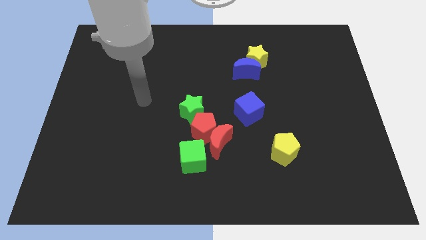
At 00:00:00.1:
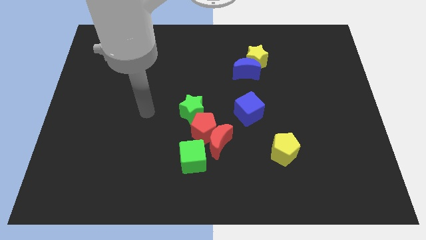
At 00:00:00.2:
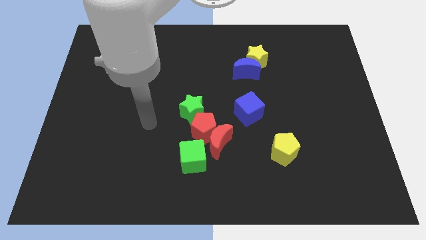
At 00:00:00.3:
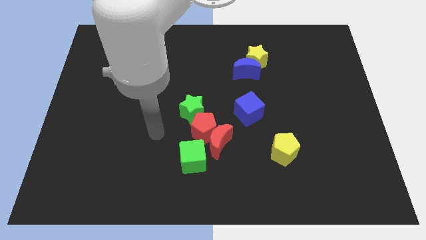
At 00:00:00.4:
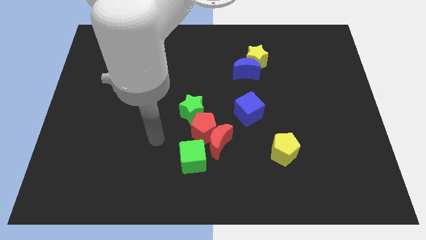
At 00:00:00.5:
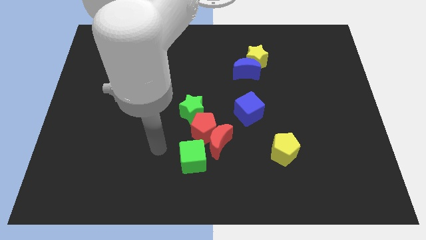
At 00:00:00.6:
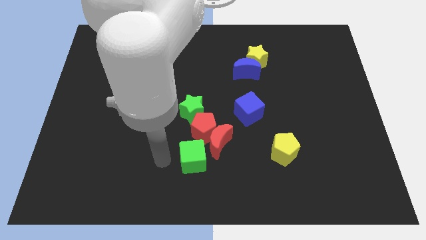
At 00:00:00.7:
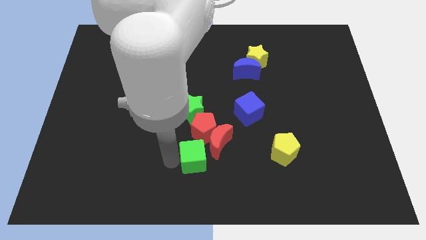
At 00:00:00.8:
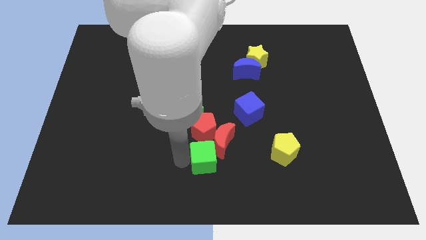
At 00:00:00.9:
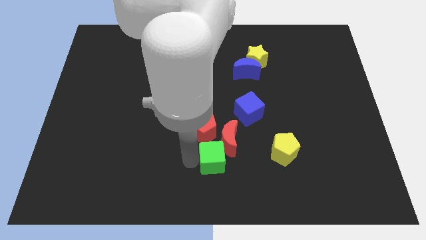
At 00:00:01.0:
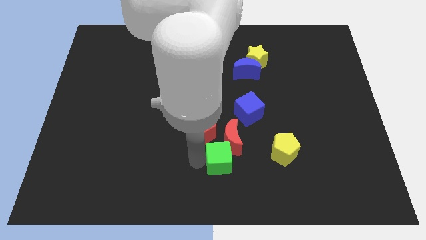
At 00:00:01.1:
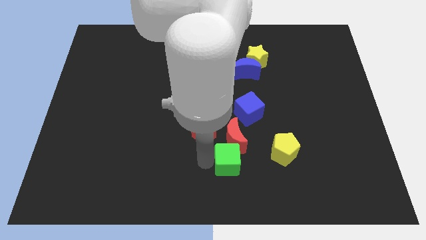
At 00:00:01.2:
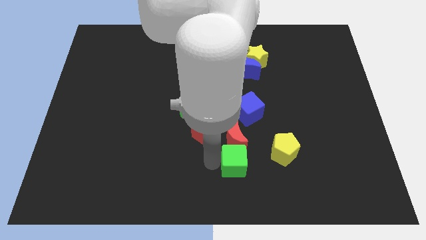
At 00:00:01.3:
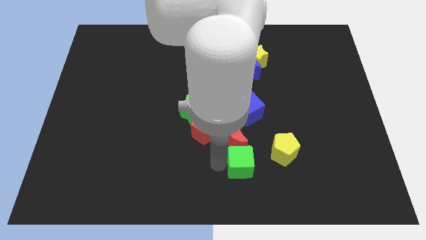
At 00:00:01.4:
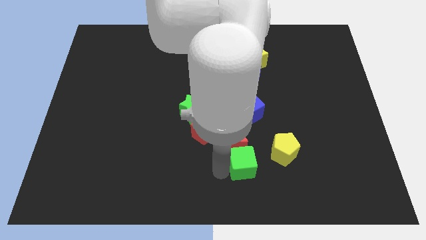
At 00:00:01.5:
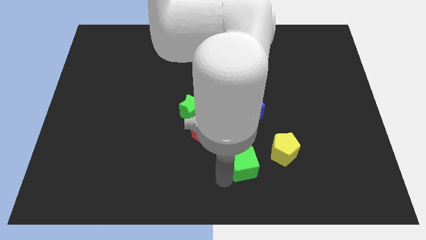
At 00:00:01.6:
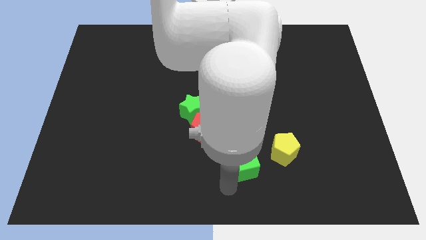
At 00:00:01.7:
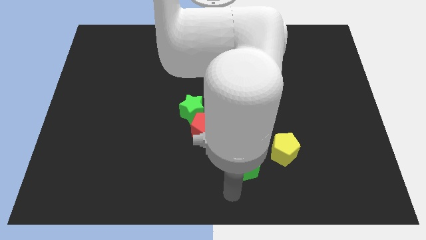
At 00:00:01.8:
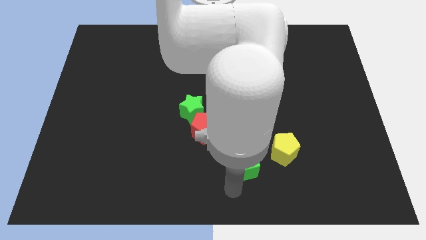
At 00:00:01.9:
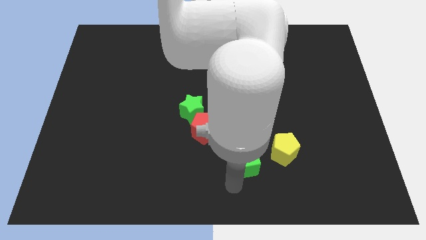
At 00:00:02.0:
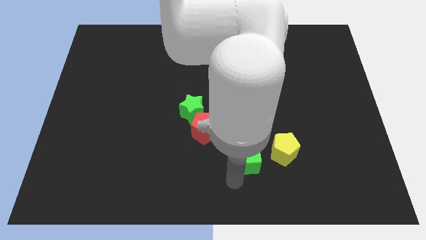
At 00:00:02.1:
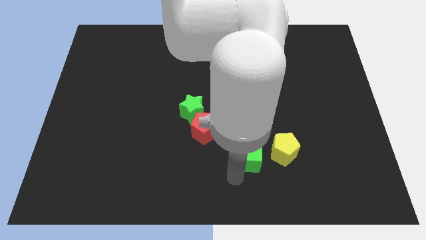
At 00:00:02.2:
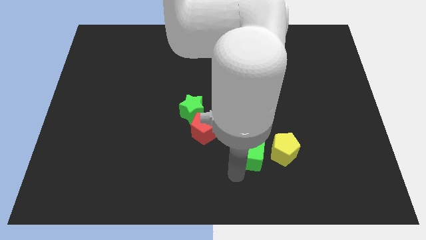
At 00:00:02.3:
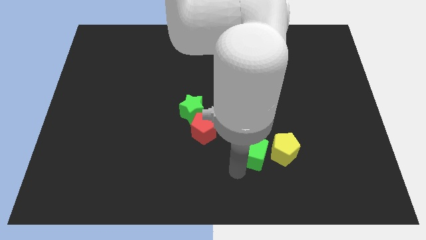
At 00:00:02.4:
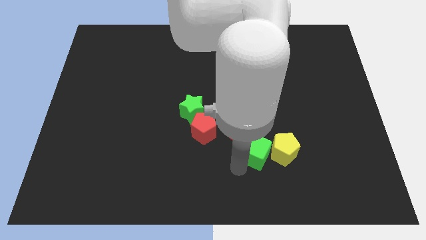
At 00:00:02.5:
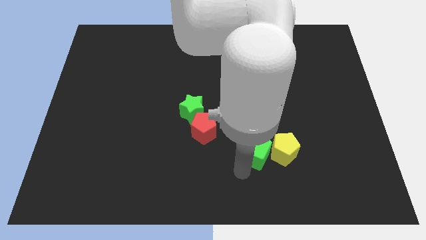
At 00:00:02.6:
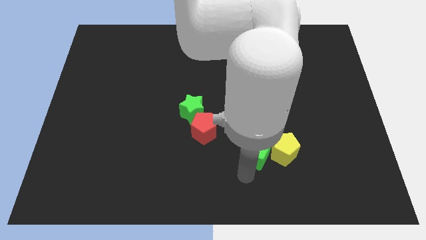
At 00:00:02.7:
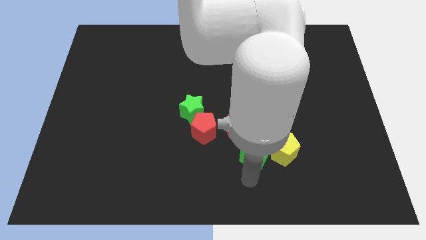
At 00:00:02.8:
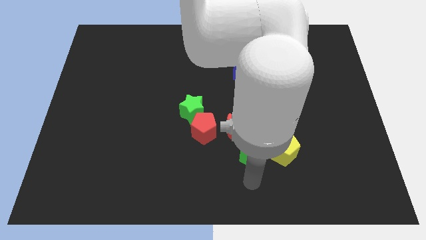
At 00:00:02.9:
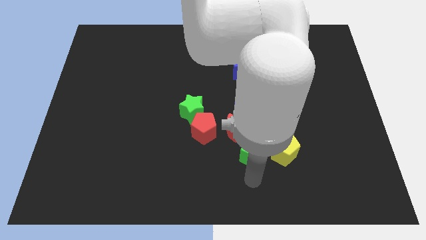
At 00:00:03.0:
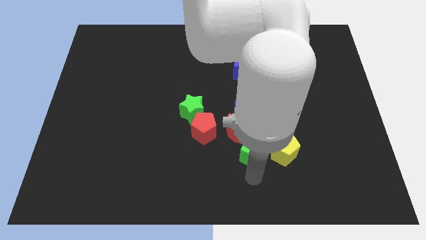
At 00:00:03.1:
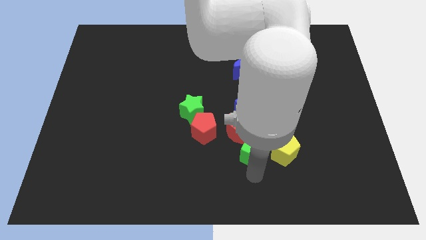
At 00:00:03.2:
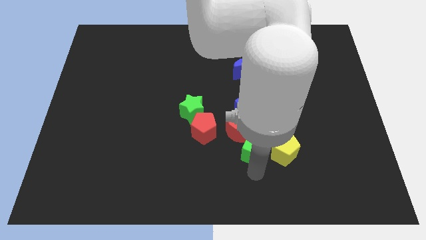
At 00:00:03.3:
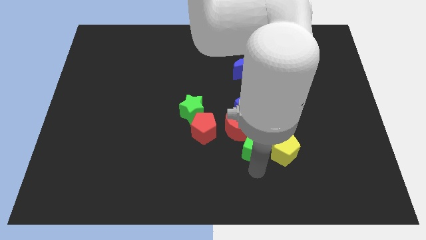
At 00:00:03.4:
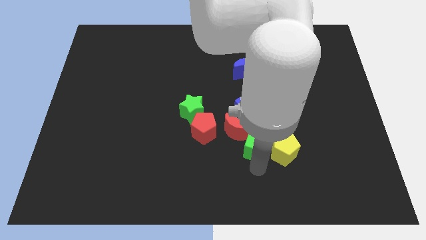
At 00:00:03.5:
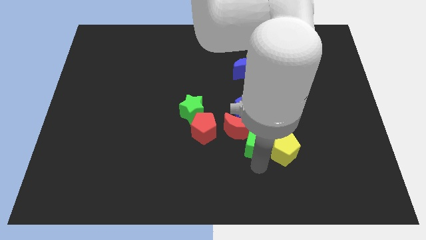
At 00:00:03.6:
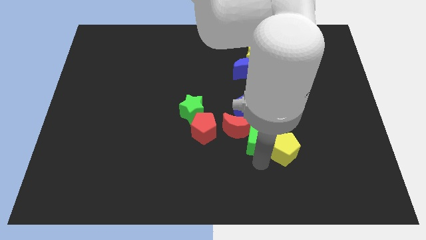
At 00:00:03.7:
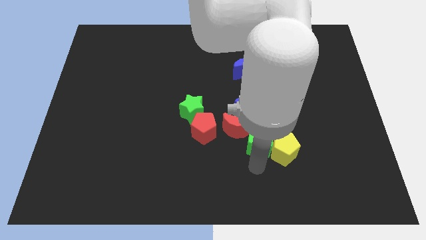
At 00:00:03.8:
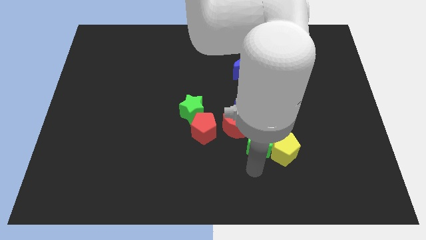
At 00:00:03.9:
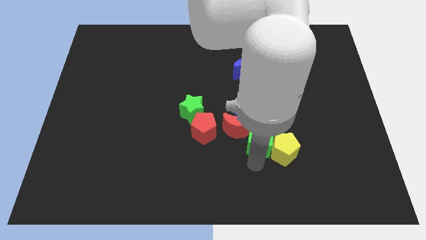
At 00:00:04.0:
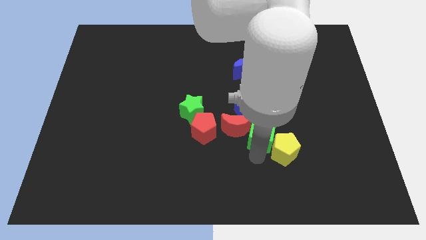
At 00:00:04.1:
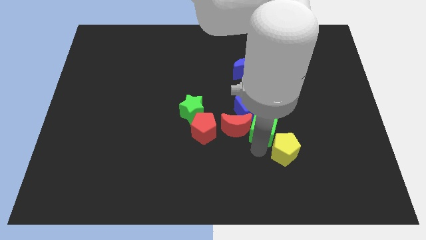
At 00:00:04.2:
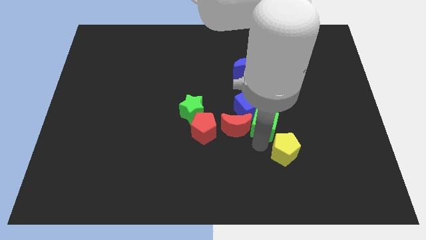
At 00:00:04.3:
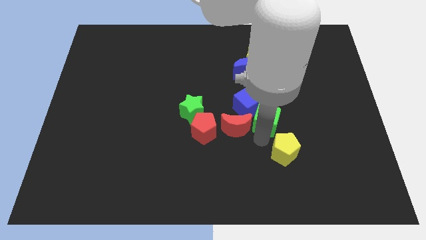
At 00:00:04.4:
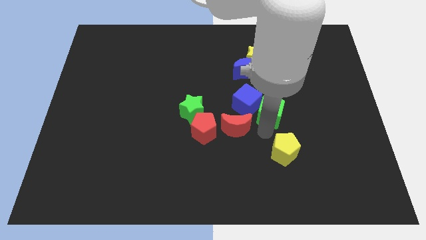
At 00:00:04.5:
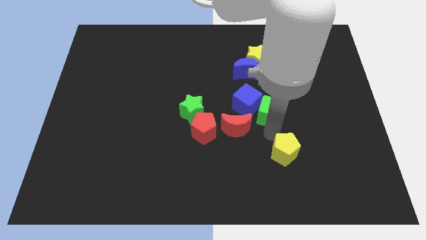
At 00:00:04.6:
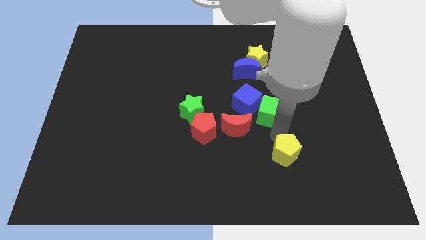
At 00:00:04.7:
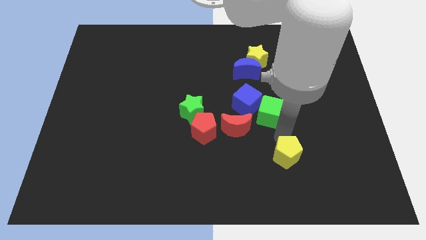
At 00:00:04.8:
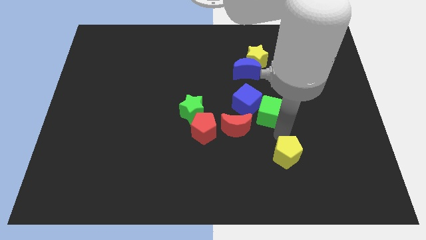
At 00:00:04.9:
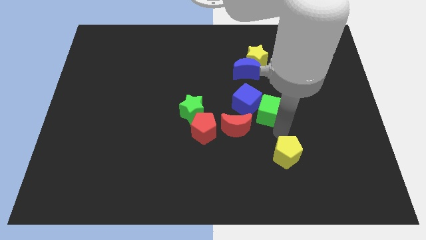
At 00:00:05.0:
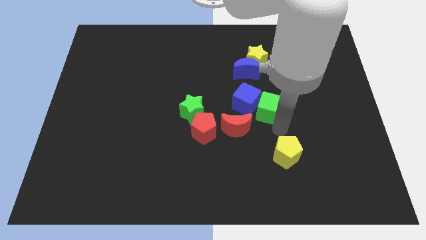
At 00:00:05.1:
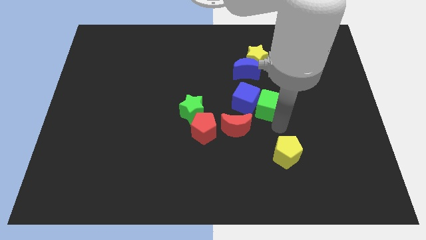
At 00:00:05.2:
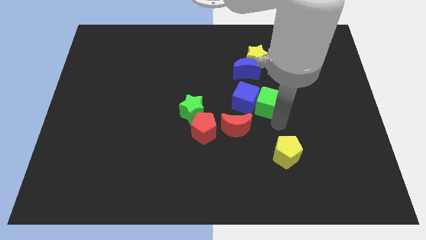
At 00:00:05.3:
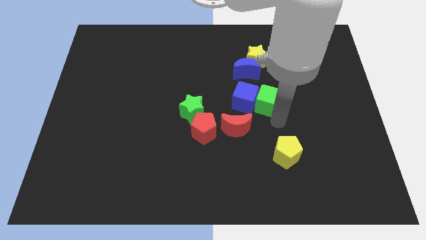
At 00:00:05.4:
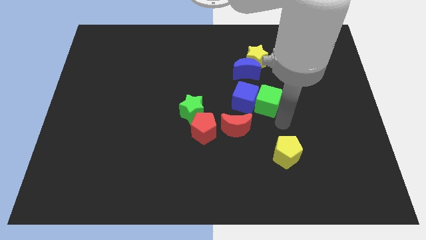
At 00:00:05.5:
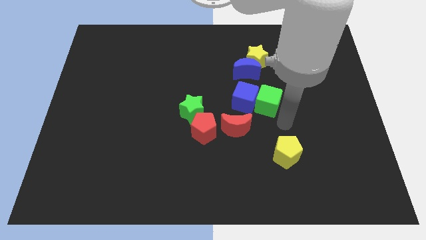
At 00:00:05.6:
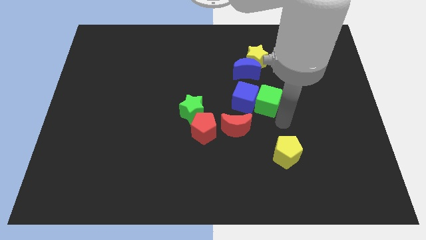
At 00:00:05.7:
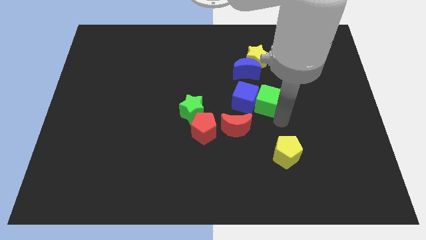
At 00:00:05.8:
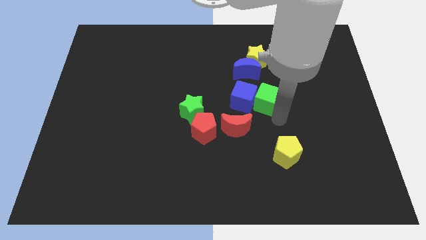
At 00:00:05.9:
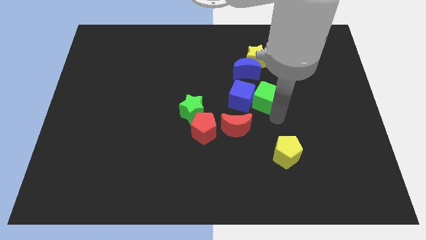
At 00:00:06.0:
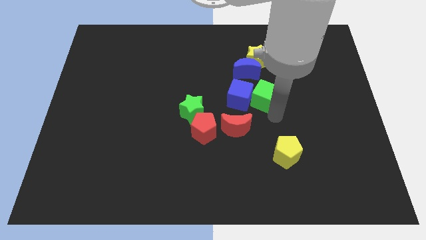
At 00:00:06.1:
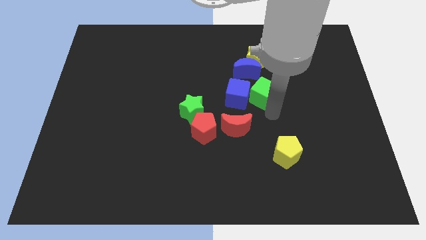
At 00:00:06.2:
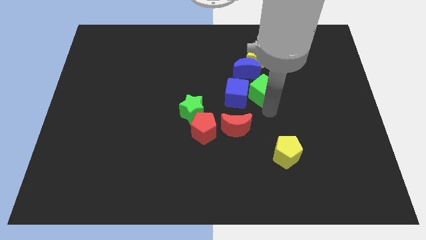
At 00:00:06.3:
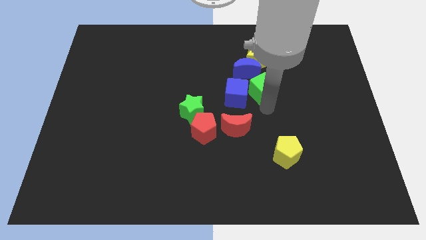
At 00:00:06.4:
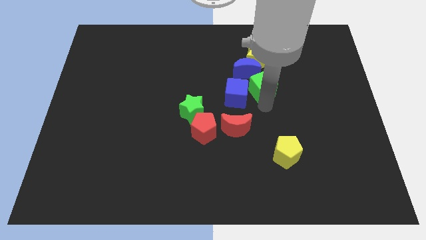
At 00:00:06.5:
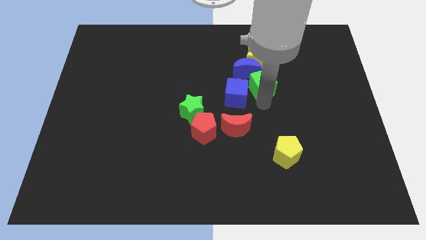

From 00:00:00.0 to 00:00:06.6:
slide the green cube towards the blue moon
